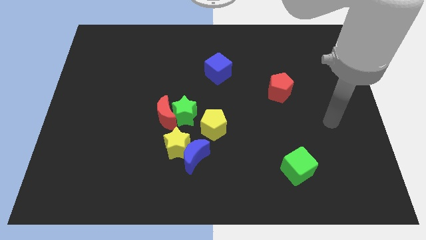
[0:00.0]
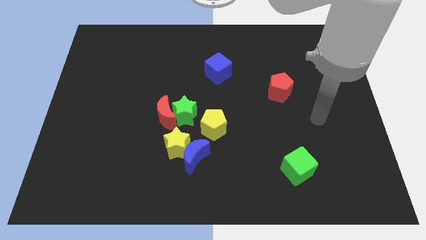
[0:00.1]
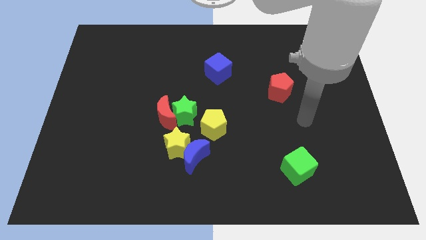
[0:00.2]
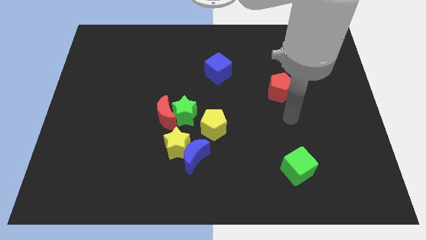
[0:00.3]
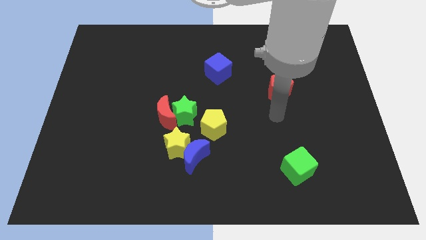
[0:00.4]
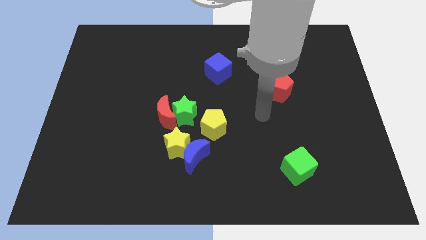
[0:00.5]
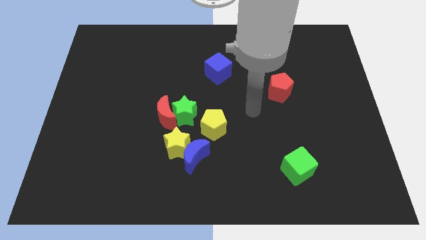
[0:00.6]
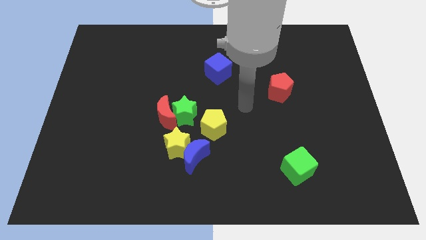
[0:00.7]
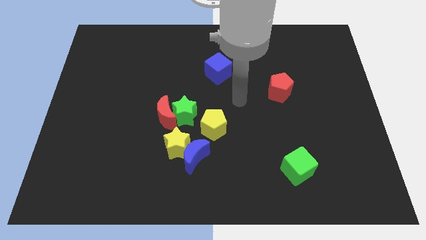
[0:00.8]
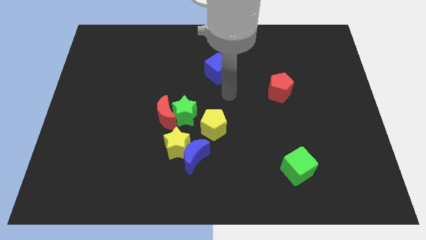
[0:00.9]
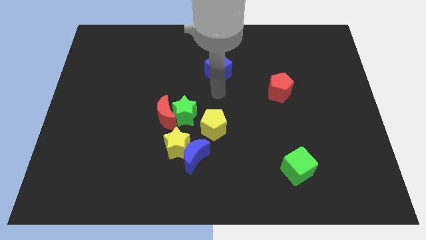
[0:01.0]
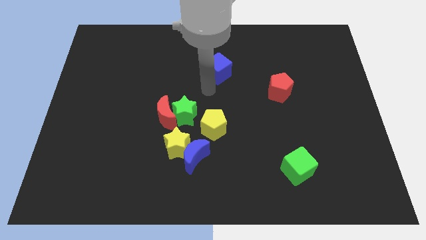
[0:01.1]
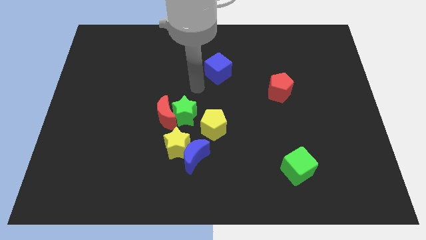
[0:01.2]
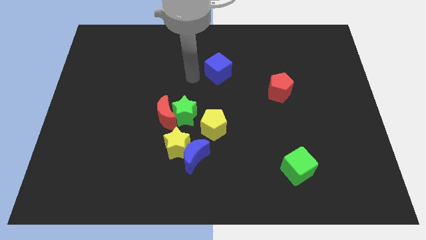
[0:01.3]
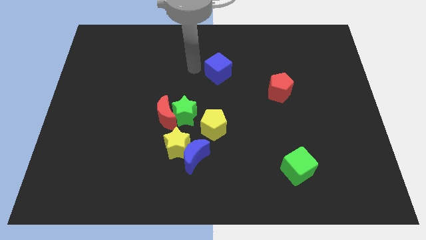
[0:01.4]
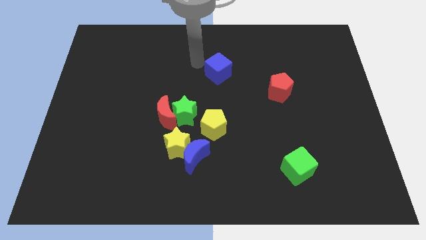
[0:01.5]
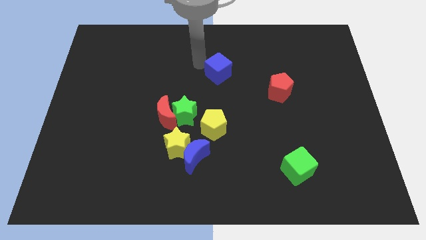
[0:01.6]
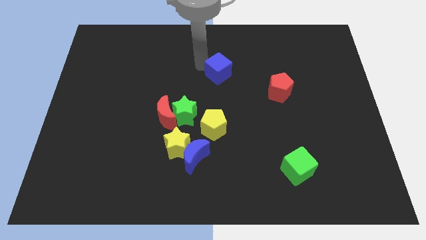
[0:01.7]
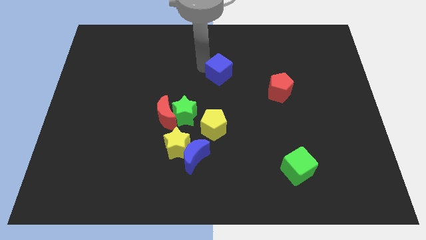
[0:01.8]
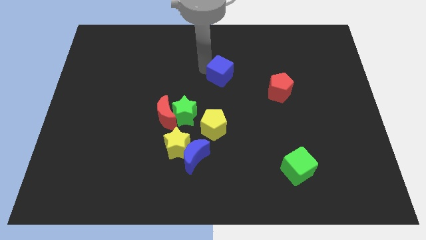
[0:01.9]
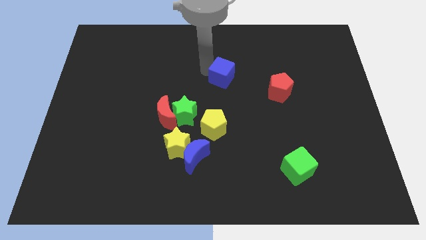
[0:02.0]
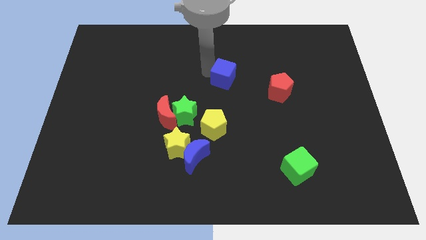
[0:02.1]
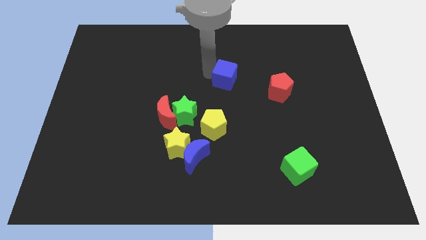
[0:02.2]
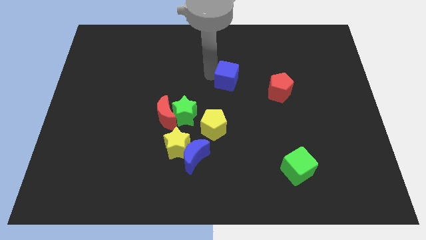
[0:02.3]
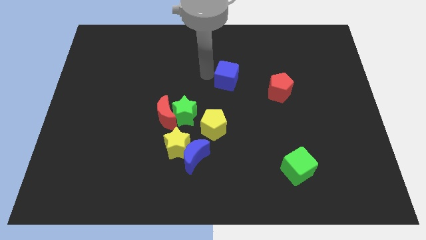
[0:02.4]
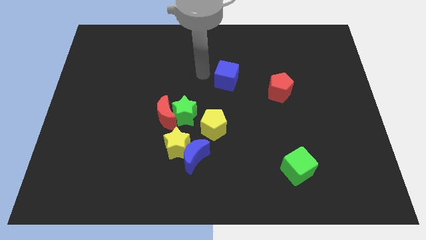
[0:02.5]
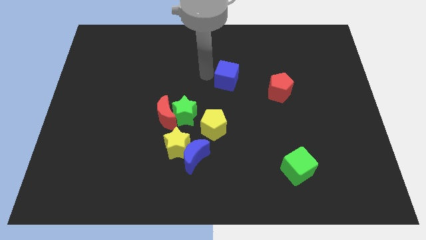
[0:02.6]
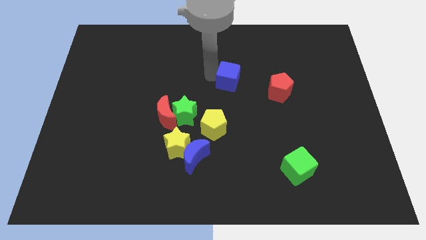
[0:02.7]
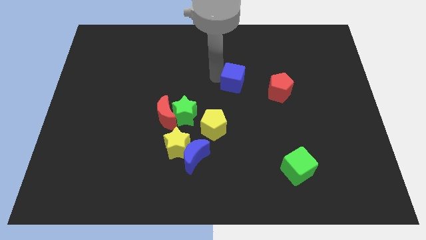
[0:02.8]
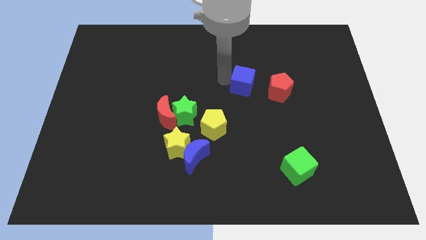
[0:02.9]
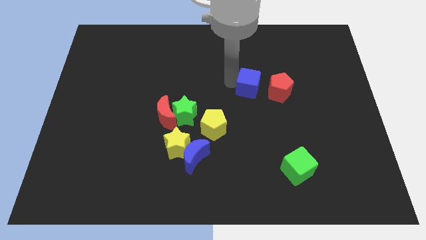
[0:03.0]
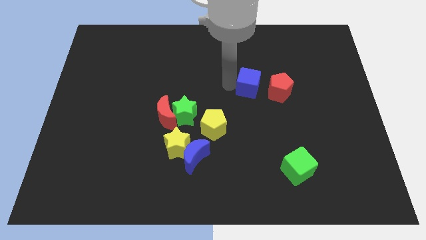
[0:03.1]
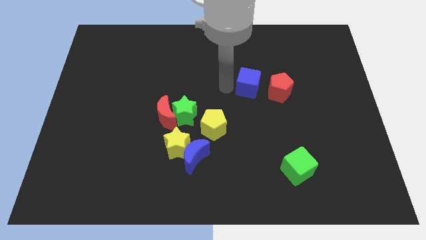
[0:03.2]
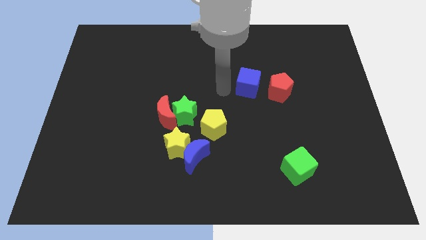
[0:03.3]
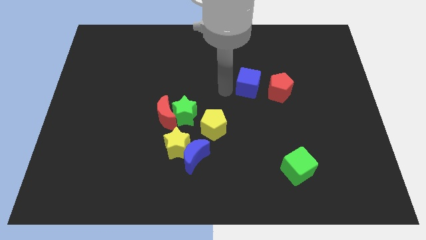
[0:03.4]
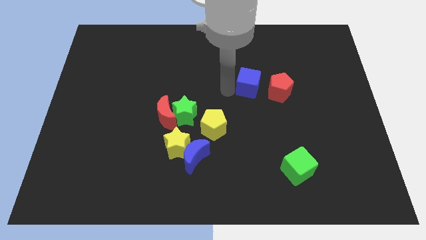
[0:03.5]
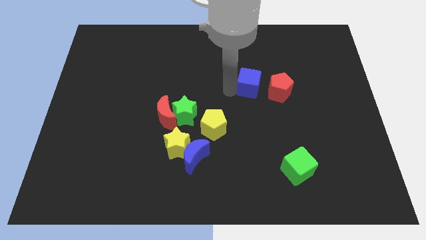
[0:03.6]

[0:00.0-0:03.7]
slide the blue cube slightly to the right

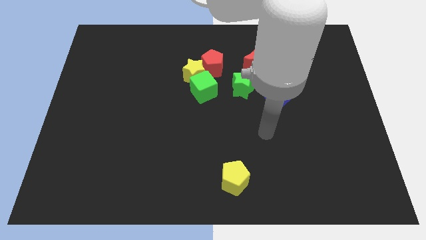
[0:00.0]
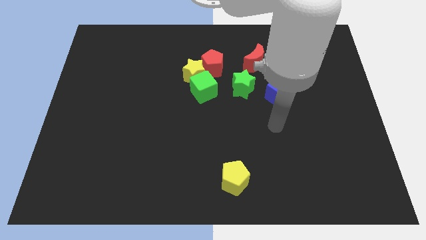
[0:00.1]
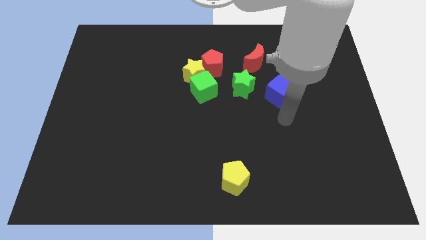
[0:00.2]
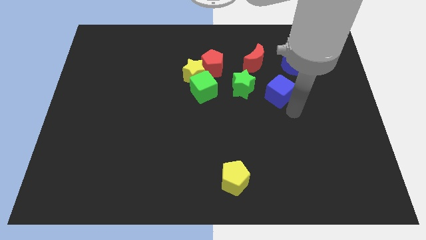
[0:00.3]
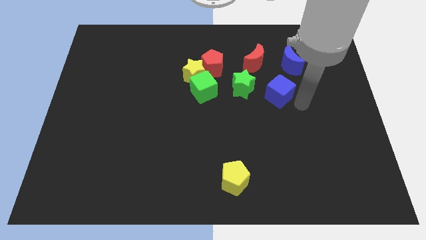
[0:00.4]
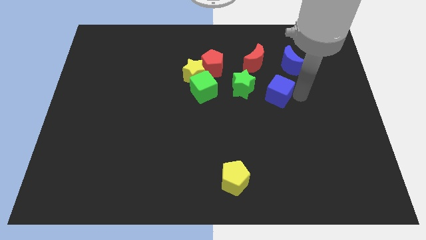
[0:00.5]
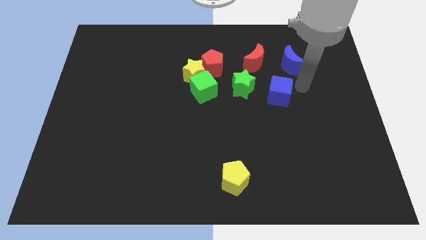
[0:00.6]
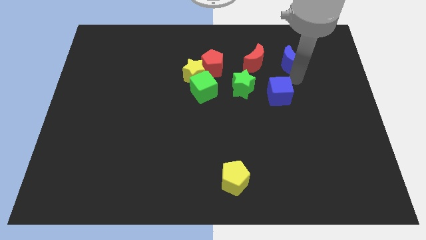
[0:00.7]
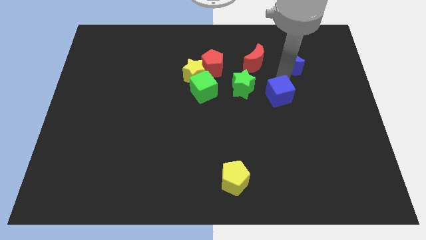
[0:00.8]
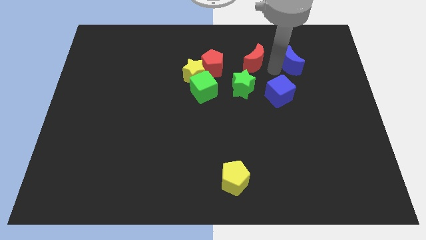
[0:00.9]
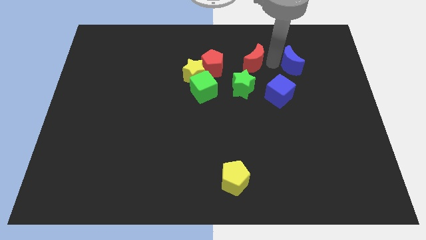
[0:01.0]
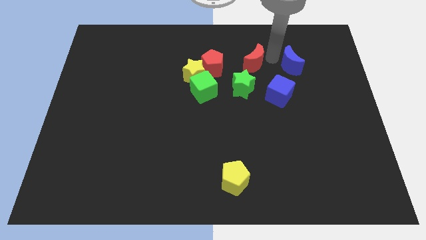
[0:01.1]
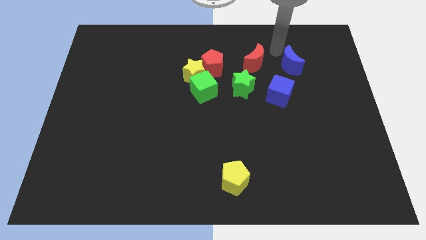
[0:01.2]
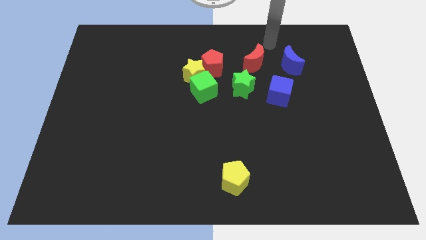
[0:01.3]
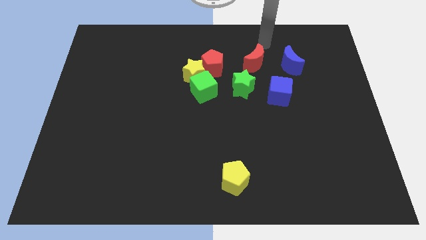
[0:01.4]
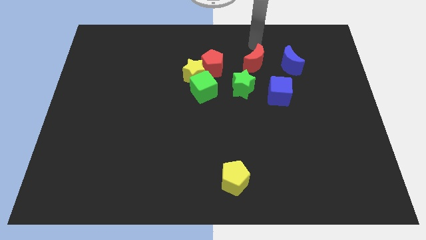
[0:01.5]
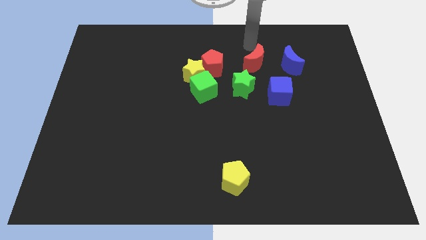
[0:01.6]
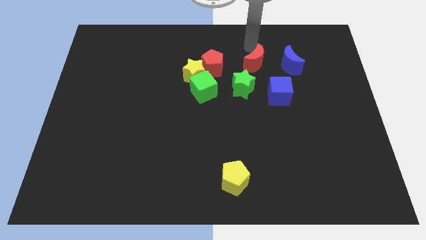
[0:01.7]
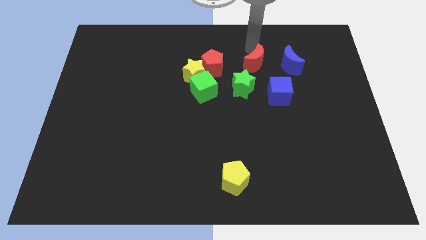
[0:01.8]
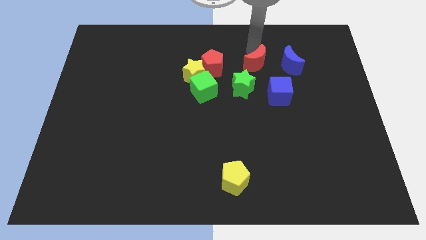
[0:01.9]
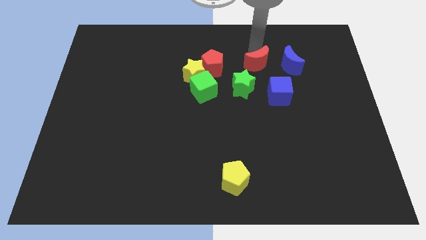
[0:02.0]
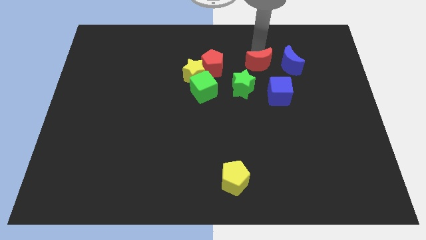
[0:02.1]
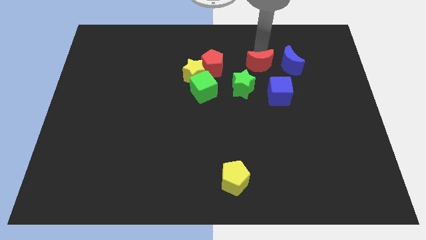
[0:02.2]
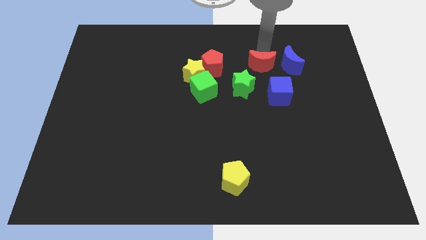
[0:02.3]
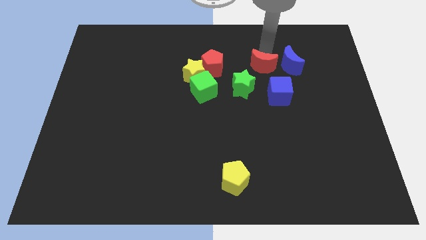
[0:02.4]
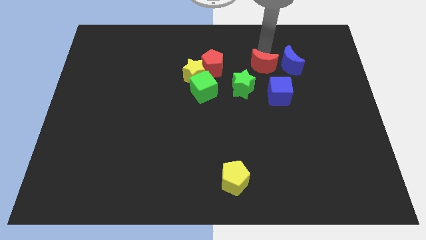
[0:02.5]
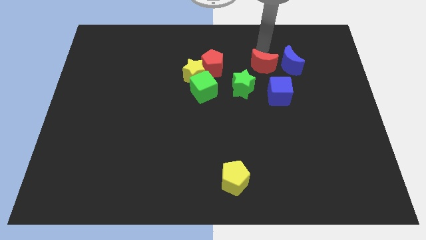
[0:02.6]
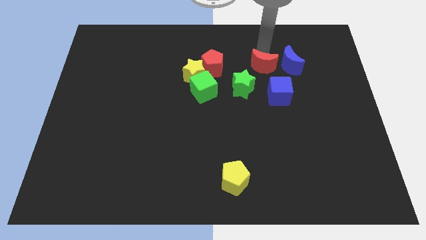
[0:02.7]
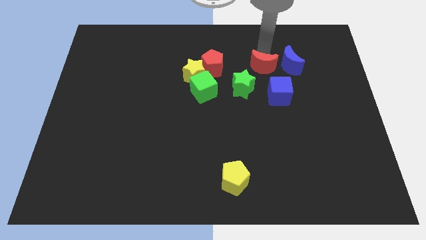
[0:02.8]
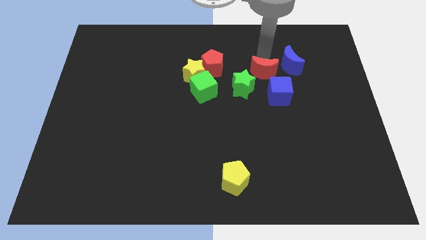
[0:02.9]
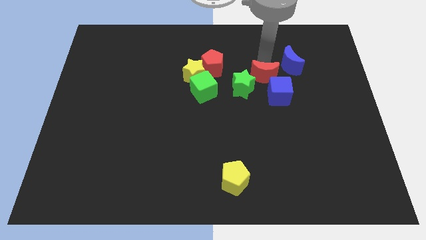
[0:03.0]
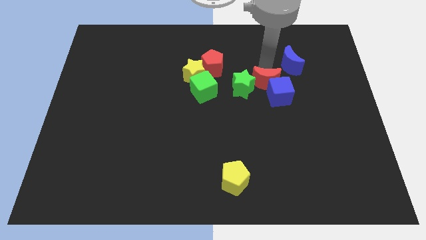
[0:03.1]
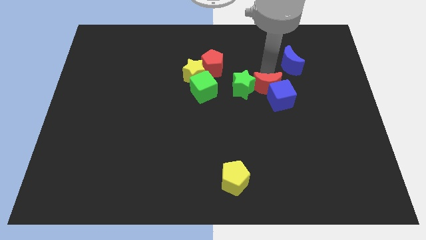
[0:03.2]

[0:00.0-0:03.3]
slightly slide the red moon down

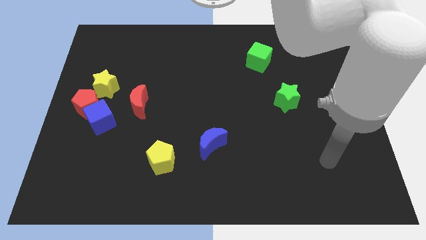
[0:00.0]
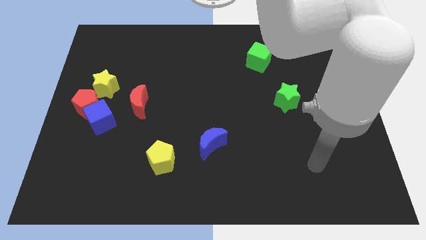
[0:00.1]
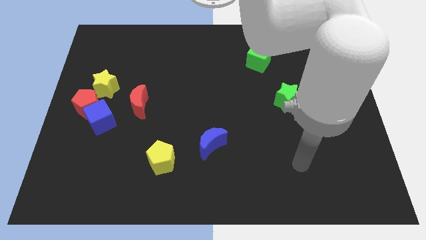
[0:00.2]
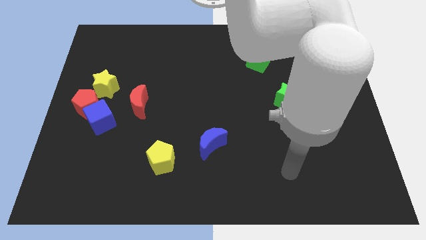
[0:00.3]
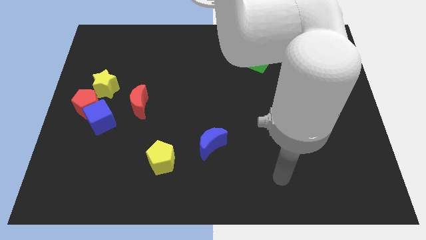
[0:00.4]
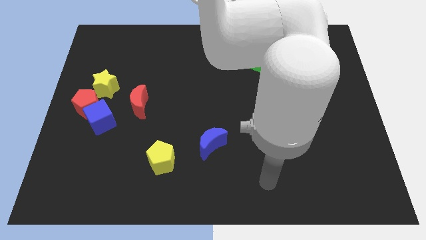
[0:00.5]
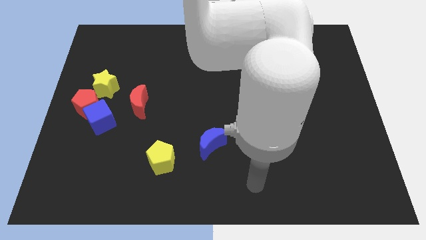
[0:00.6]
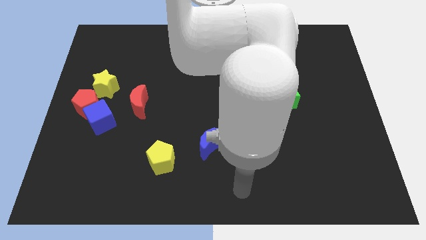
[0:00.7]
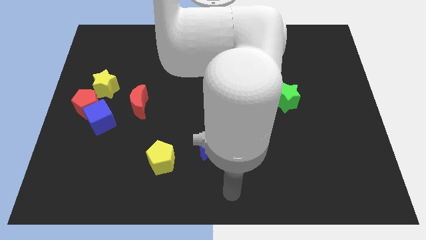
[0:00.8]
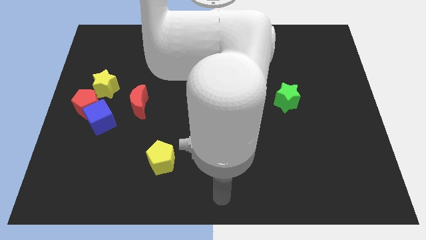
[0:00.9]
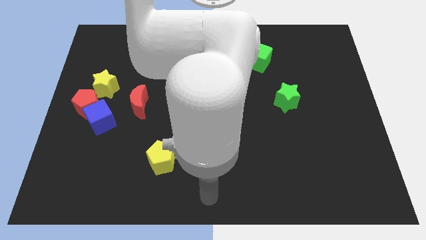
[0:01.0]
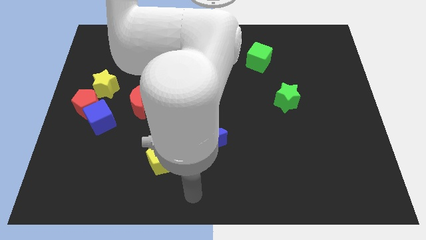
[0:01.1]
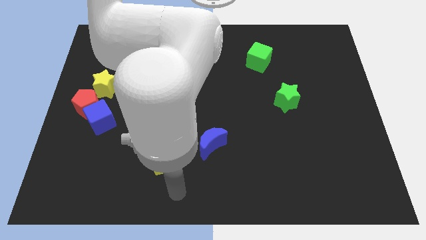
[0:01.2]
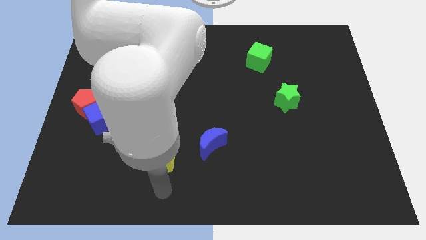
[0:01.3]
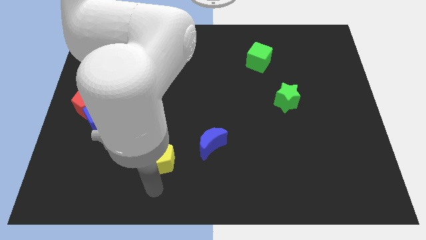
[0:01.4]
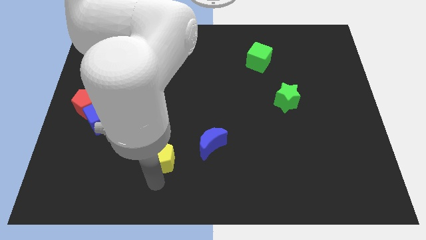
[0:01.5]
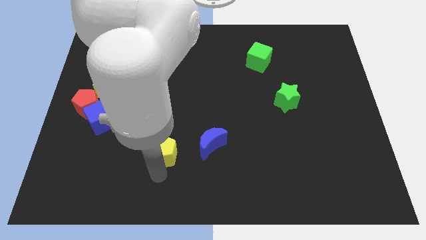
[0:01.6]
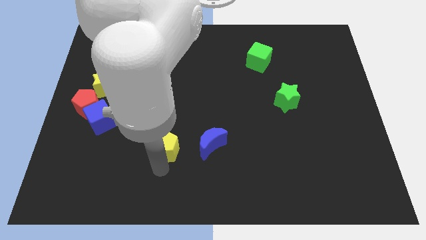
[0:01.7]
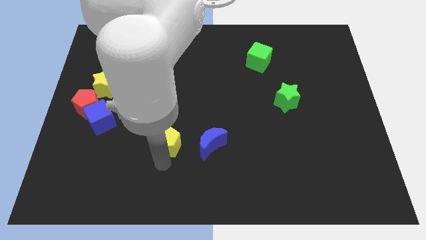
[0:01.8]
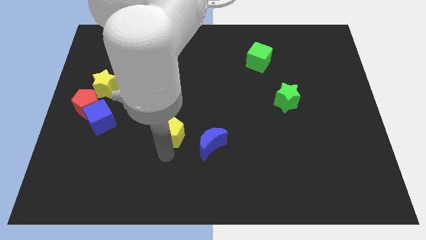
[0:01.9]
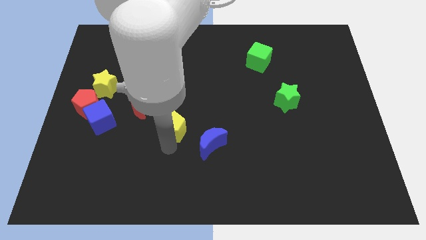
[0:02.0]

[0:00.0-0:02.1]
move the yellow pentagon upwards a little
